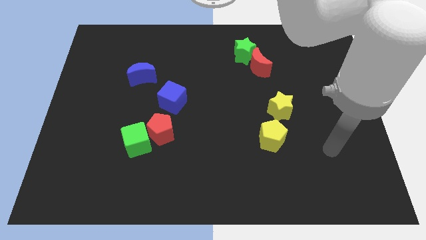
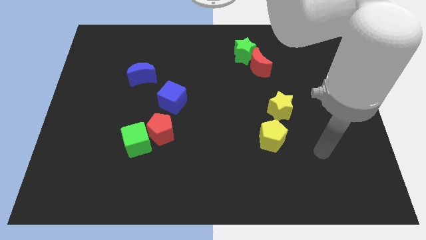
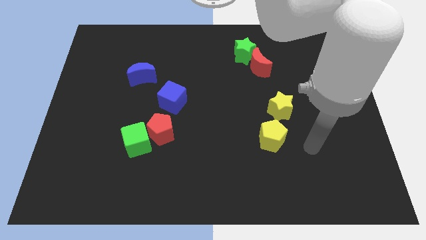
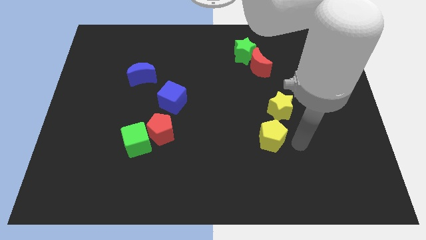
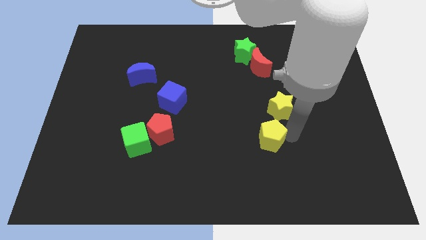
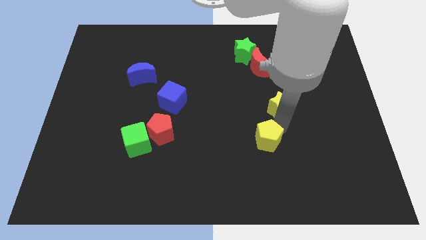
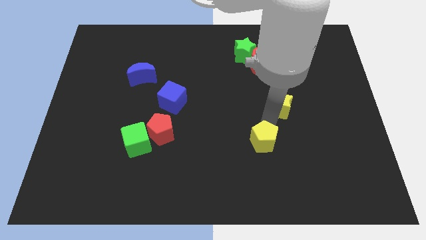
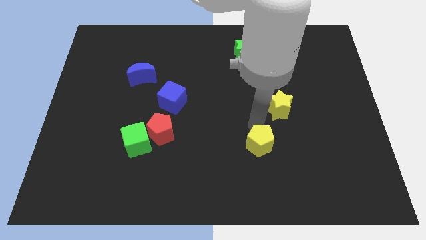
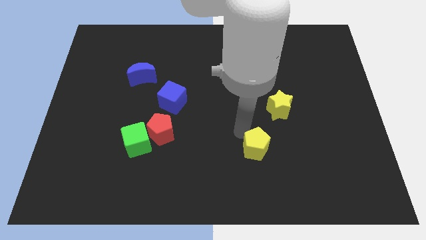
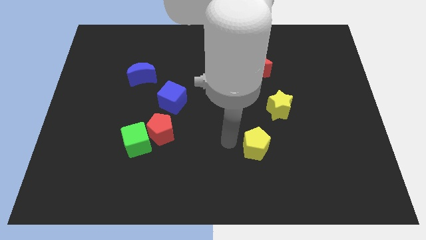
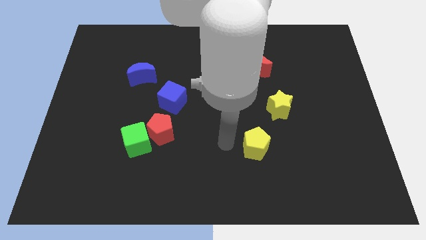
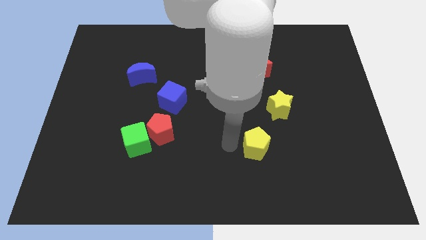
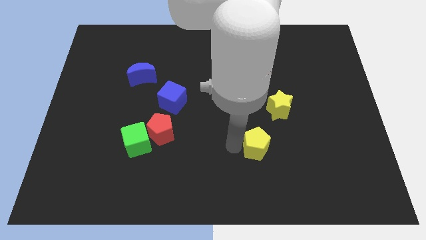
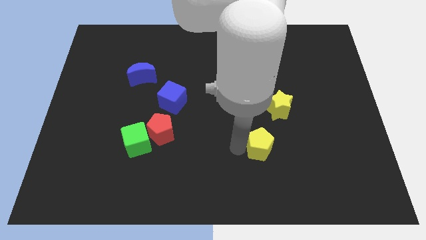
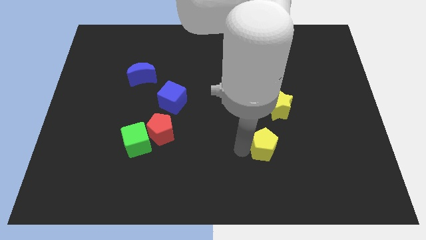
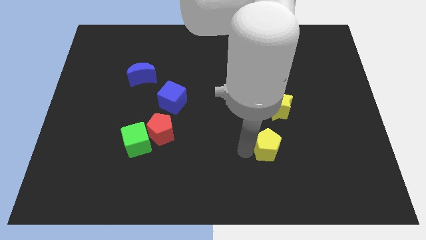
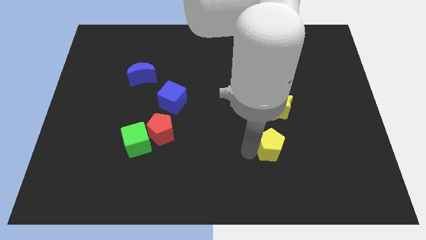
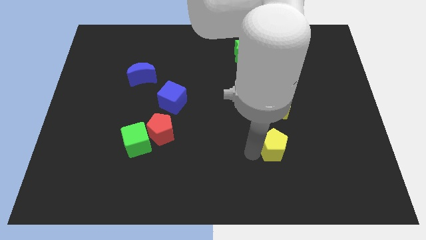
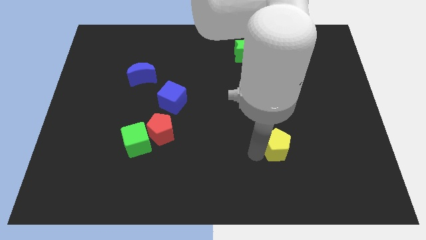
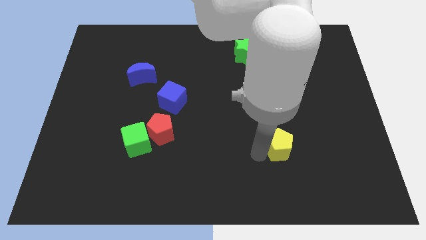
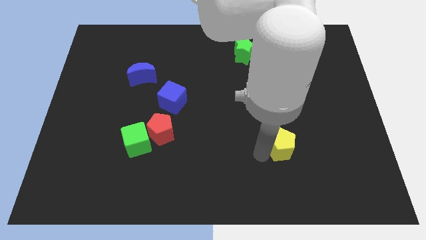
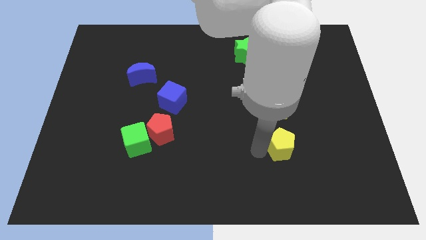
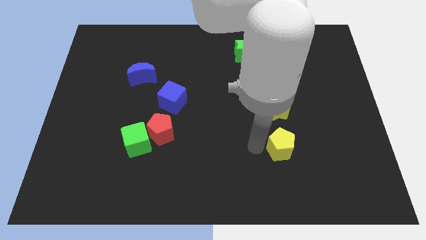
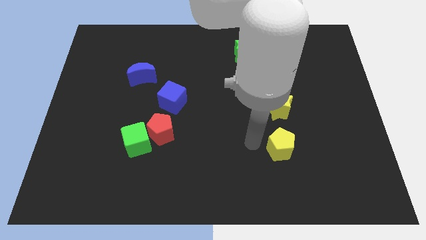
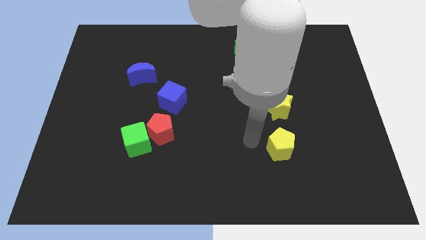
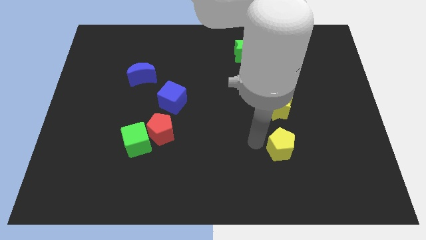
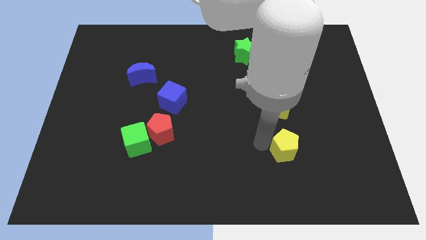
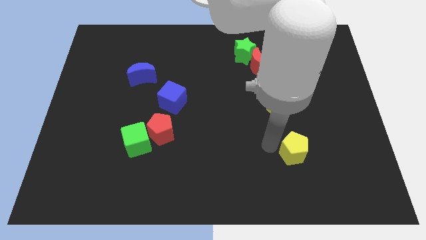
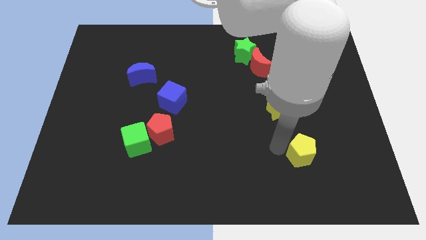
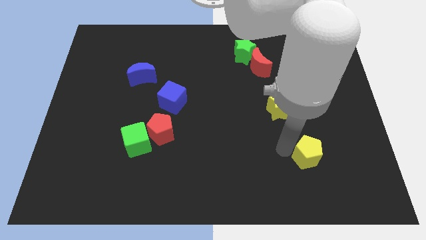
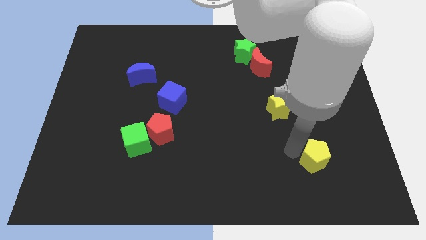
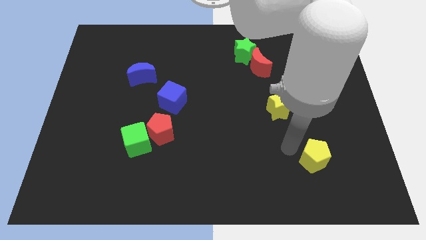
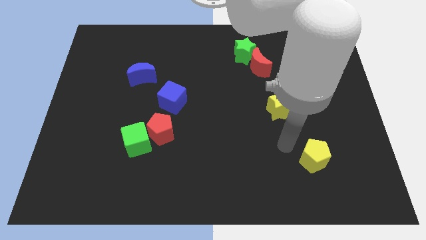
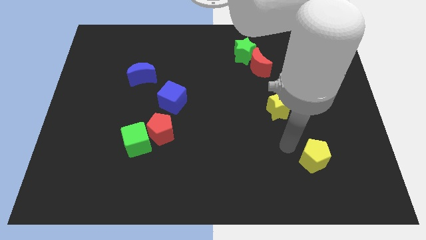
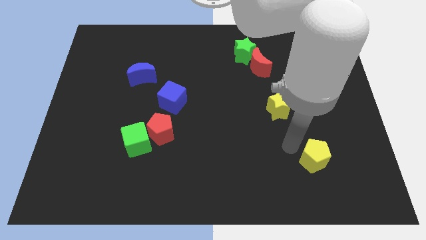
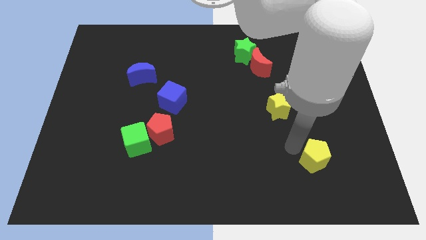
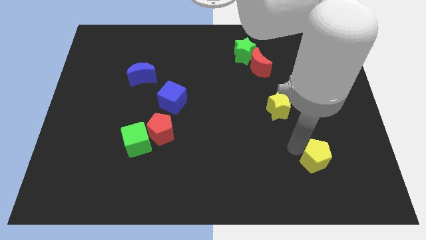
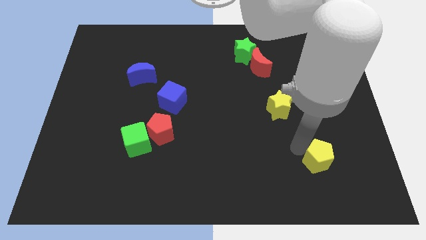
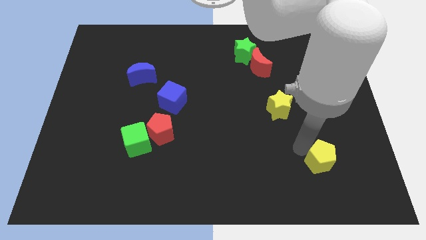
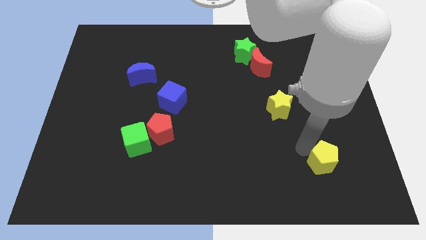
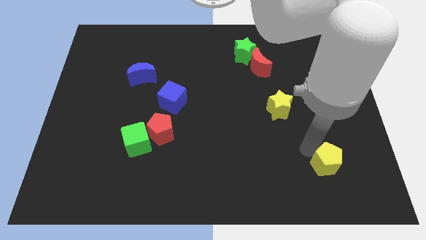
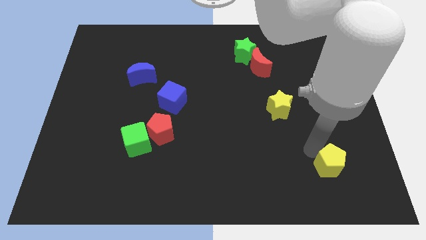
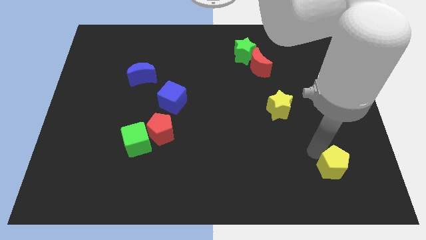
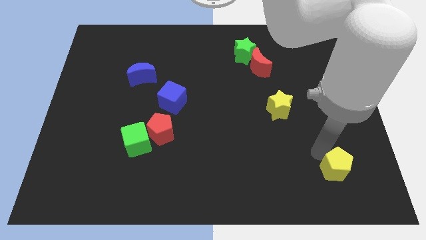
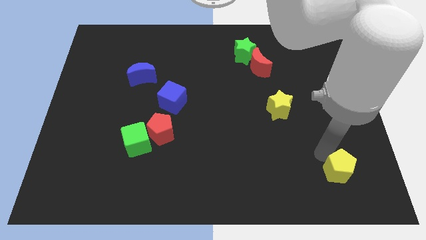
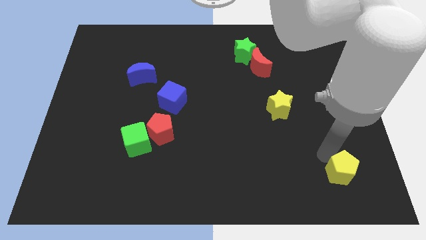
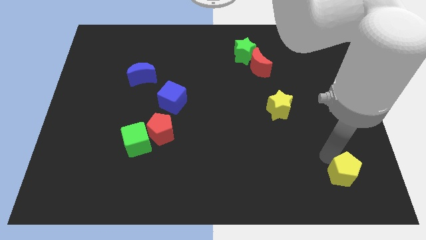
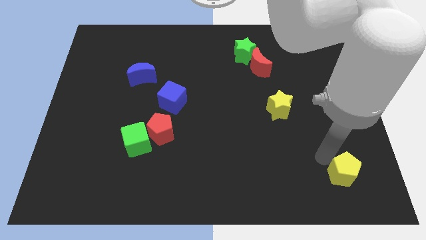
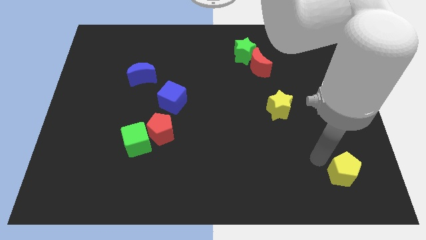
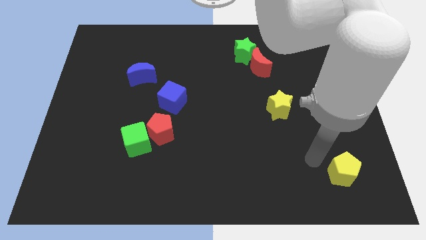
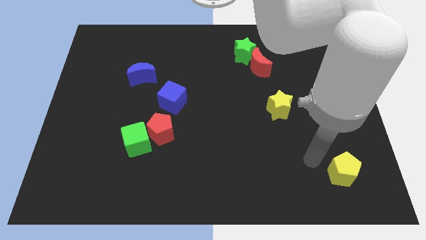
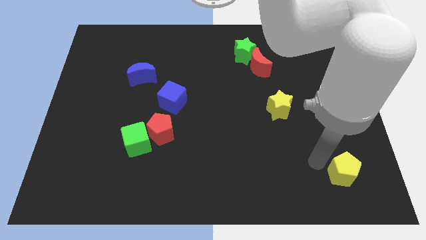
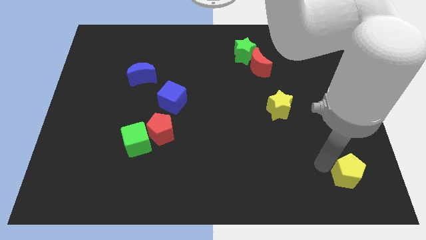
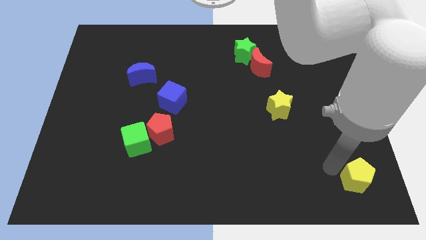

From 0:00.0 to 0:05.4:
push the yellow pentagon to the bottom right corner
